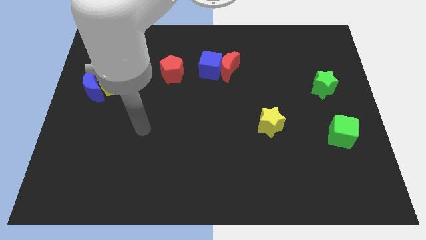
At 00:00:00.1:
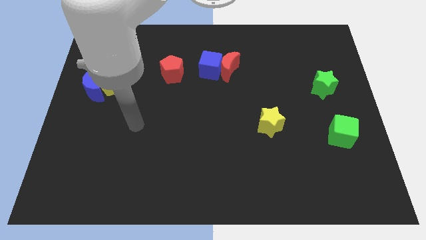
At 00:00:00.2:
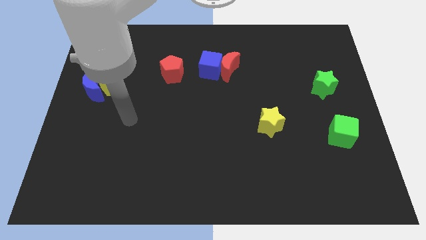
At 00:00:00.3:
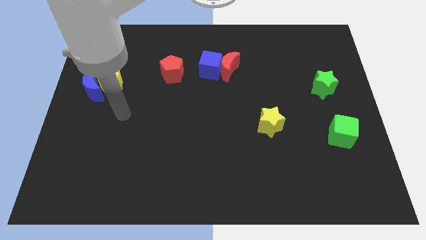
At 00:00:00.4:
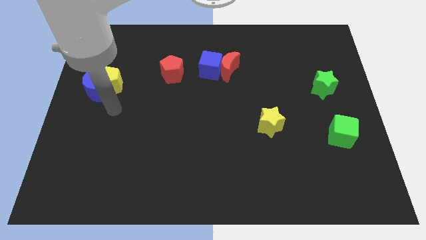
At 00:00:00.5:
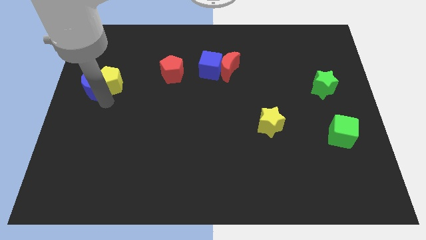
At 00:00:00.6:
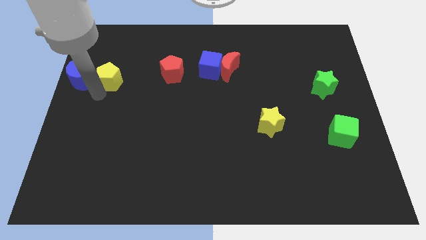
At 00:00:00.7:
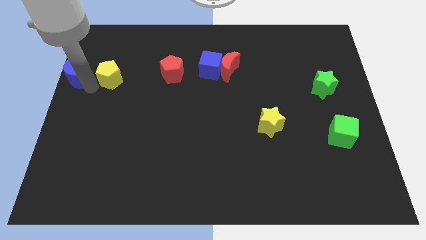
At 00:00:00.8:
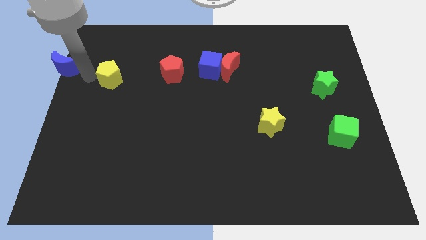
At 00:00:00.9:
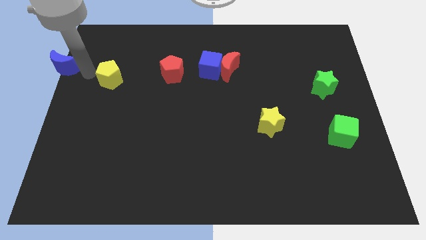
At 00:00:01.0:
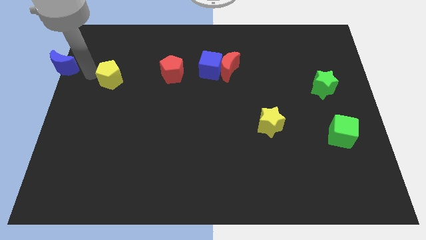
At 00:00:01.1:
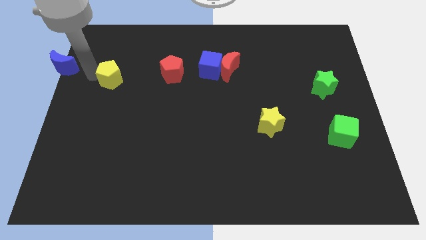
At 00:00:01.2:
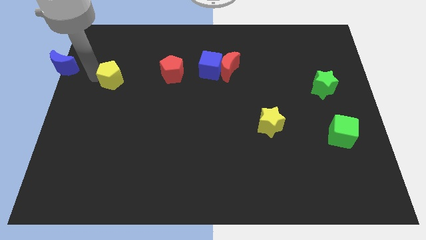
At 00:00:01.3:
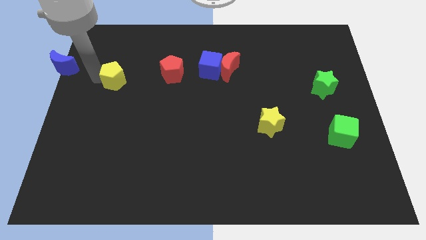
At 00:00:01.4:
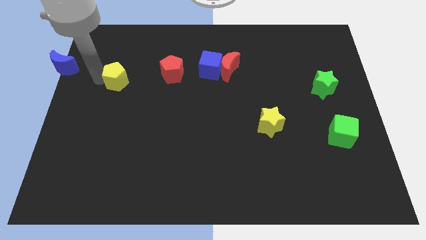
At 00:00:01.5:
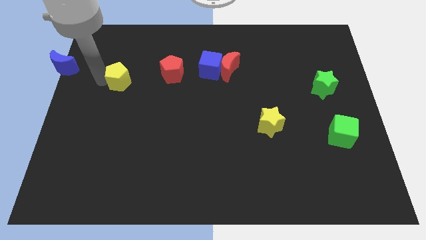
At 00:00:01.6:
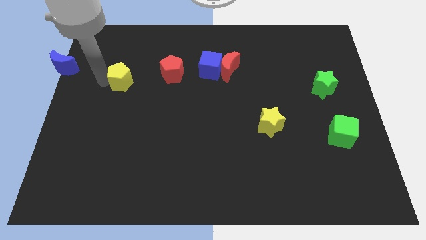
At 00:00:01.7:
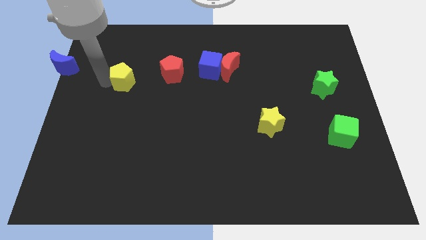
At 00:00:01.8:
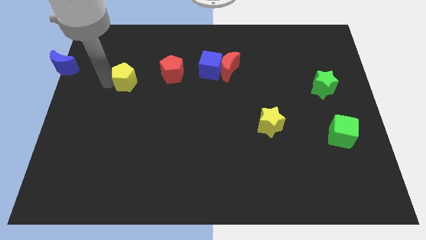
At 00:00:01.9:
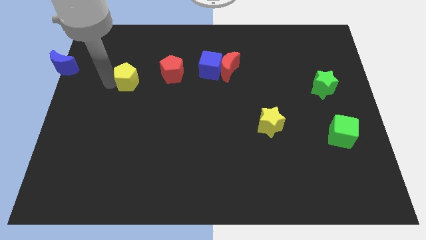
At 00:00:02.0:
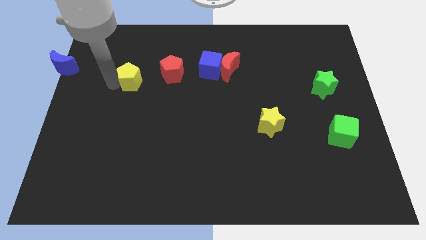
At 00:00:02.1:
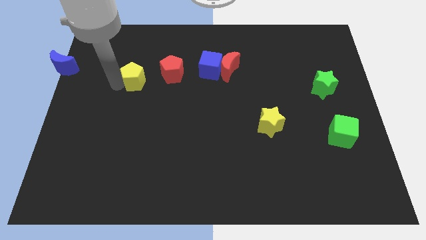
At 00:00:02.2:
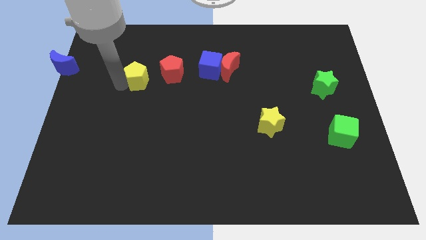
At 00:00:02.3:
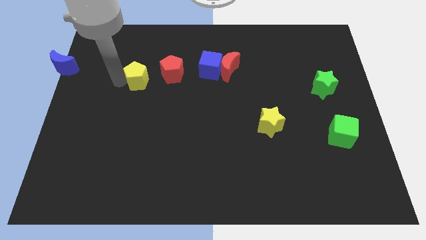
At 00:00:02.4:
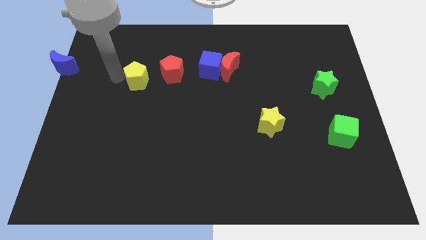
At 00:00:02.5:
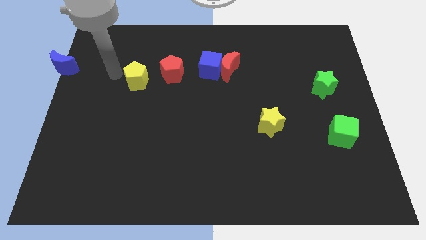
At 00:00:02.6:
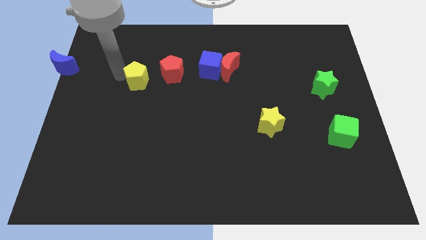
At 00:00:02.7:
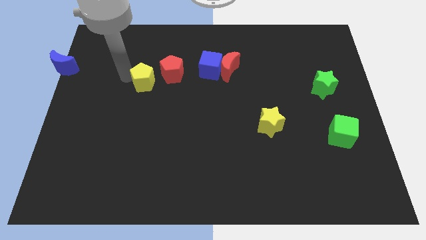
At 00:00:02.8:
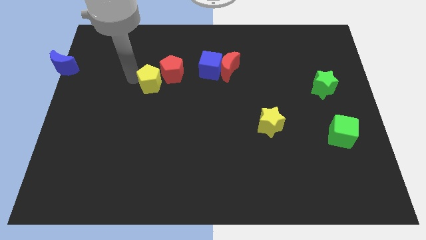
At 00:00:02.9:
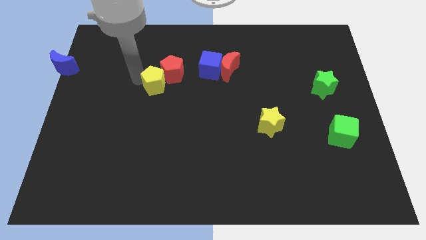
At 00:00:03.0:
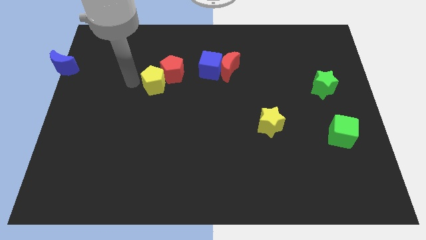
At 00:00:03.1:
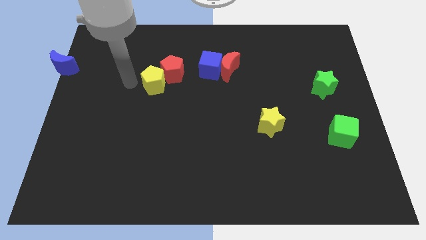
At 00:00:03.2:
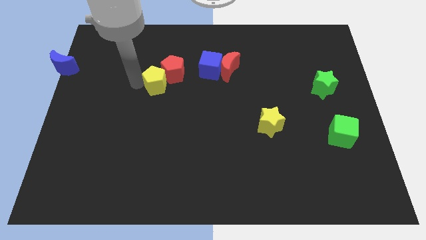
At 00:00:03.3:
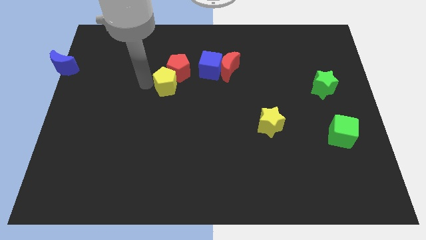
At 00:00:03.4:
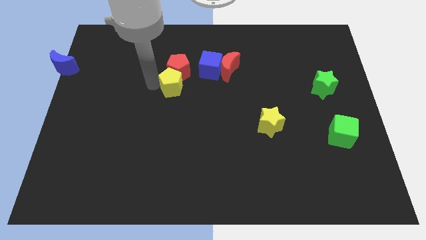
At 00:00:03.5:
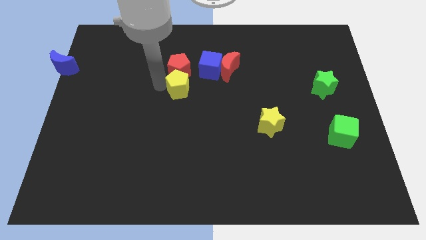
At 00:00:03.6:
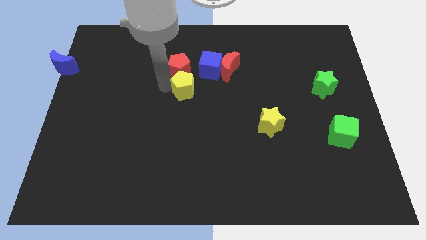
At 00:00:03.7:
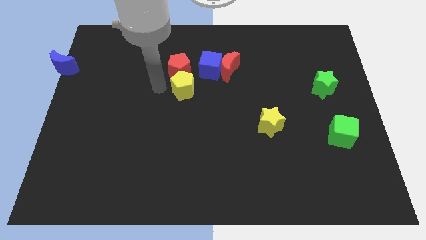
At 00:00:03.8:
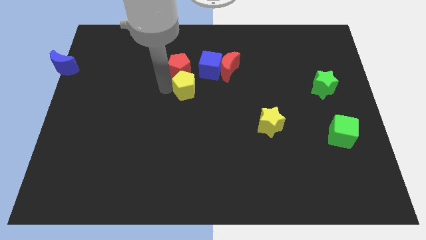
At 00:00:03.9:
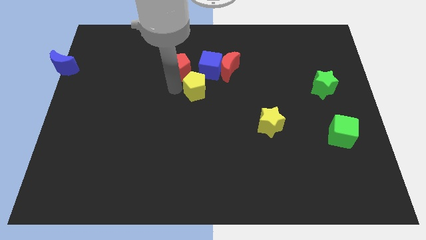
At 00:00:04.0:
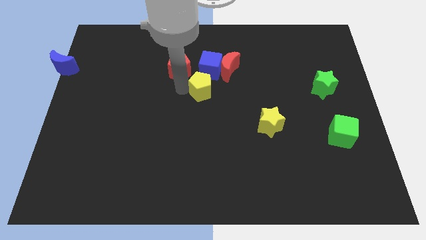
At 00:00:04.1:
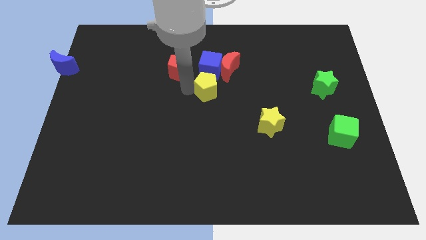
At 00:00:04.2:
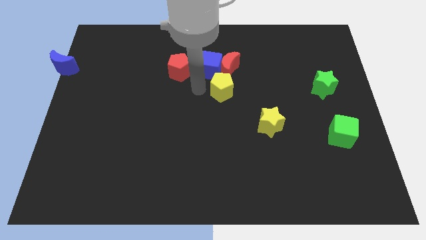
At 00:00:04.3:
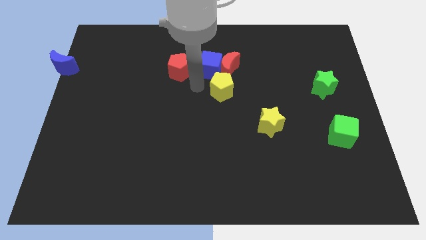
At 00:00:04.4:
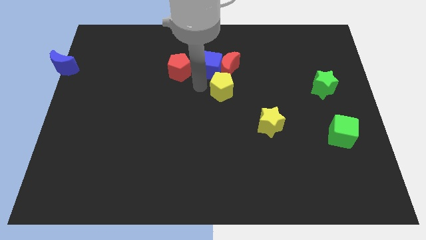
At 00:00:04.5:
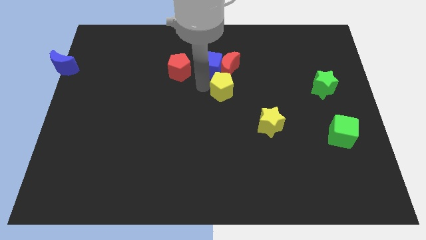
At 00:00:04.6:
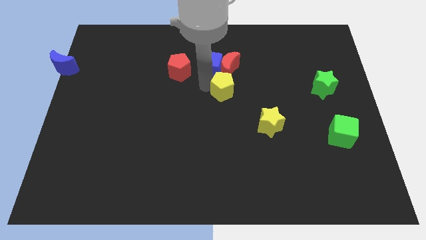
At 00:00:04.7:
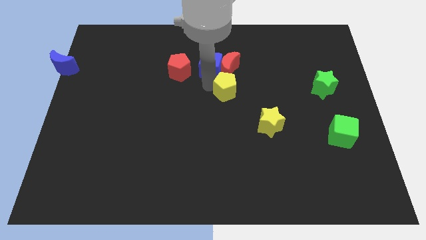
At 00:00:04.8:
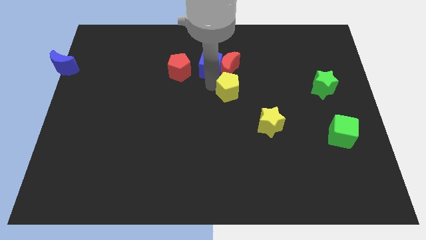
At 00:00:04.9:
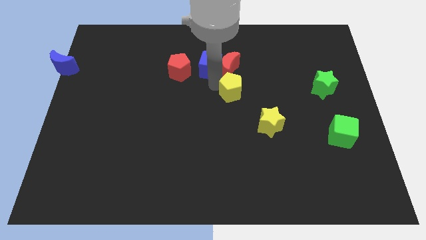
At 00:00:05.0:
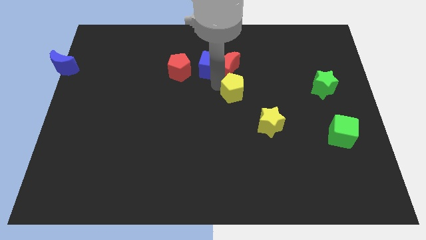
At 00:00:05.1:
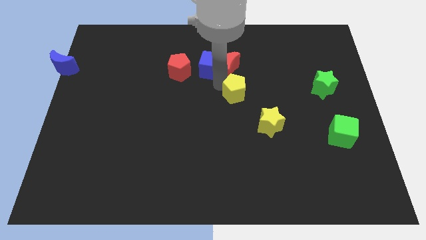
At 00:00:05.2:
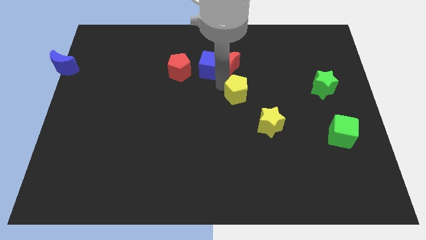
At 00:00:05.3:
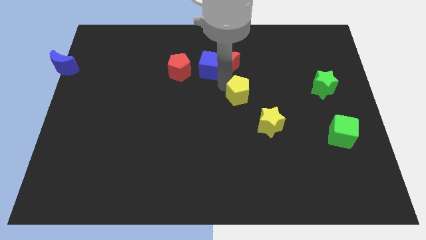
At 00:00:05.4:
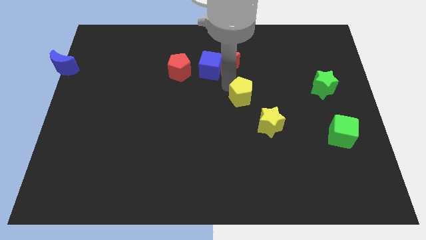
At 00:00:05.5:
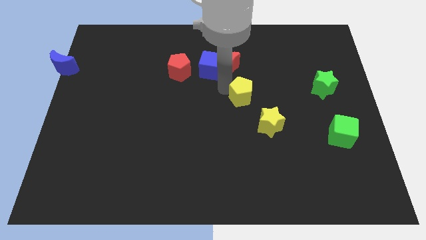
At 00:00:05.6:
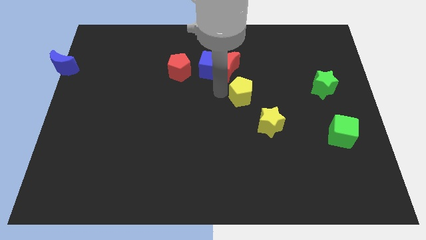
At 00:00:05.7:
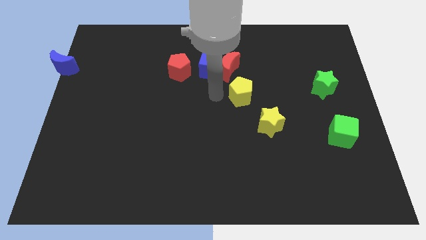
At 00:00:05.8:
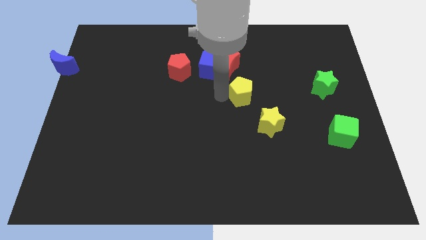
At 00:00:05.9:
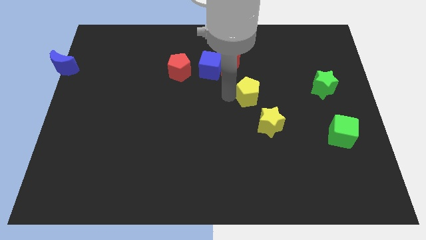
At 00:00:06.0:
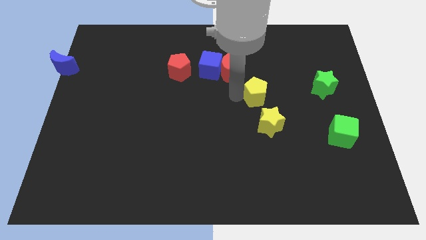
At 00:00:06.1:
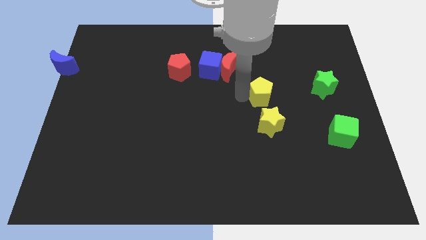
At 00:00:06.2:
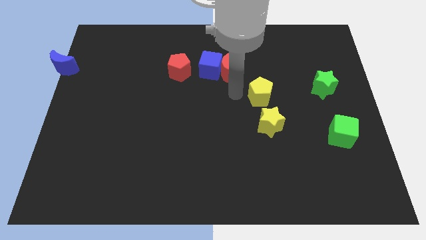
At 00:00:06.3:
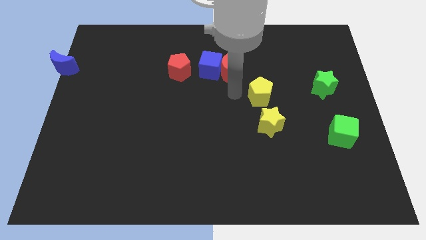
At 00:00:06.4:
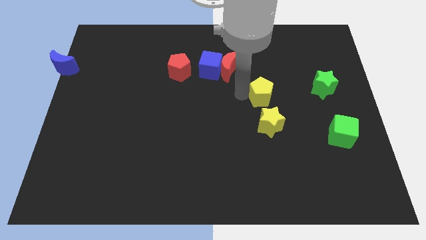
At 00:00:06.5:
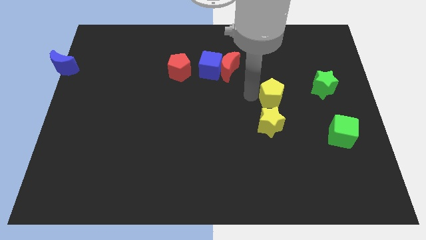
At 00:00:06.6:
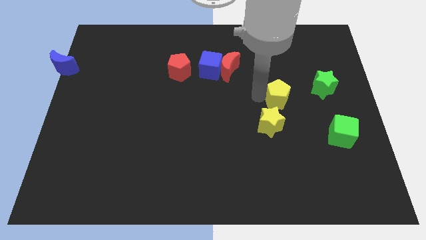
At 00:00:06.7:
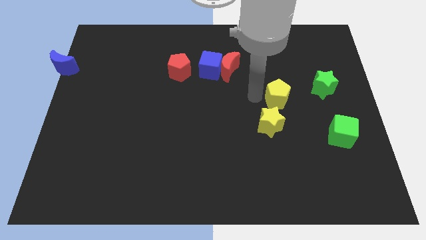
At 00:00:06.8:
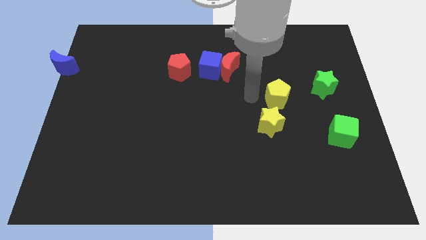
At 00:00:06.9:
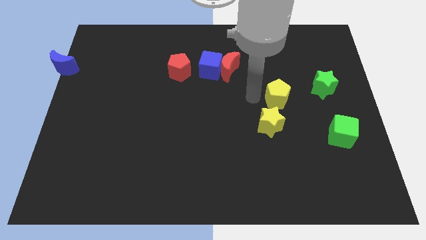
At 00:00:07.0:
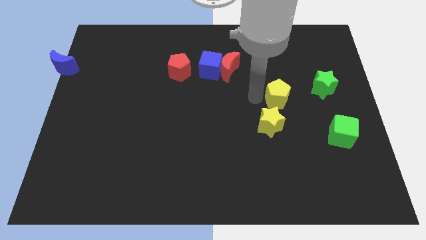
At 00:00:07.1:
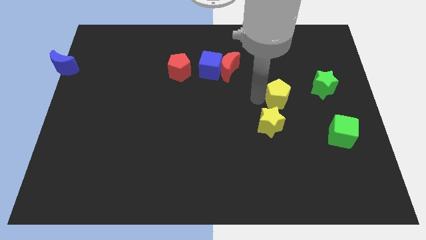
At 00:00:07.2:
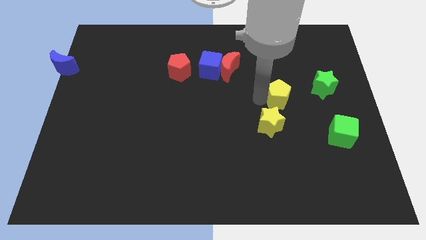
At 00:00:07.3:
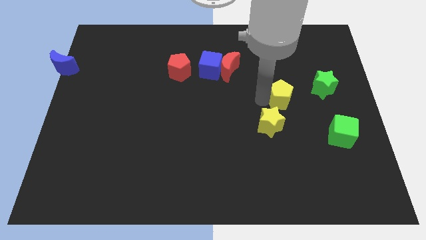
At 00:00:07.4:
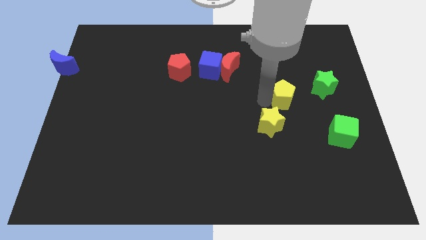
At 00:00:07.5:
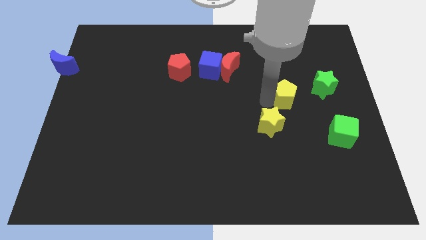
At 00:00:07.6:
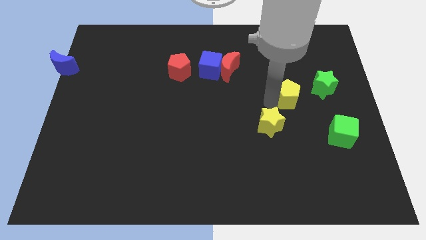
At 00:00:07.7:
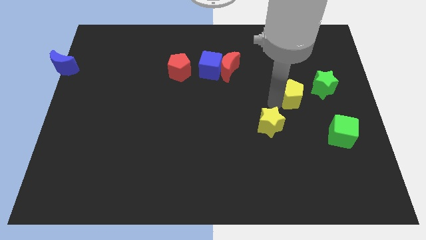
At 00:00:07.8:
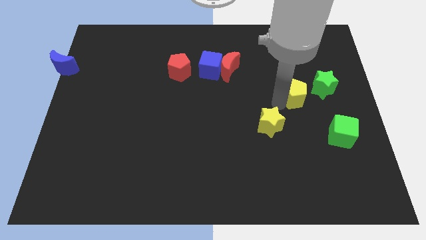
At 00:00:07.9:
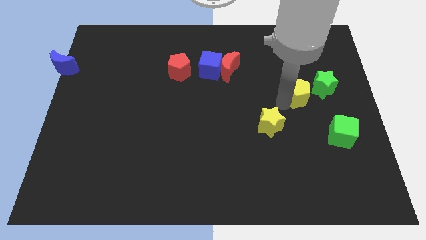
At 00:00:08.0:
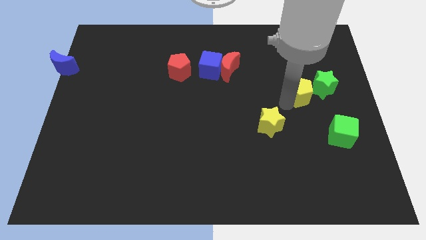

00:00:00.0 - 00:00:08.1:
slide the yellow pentagon to the green star
